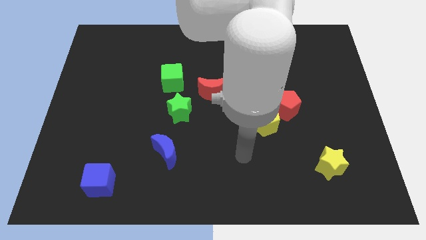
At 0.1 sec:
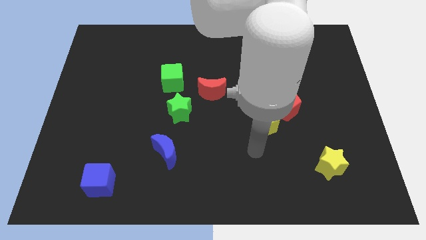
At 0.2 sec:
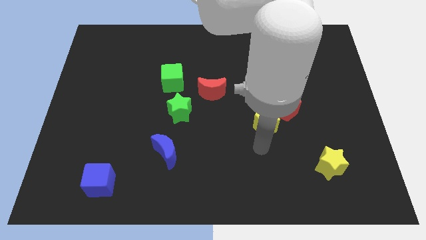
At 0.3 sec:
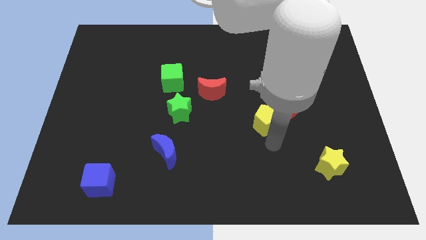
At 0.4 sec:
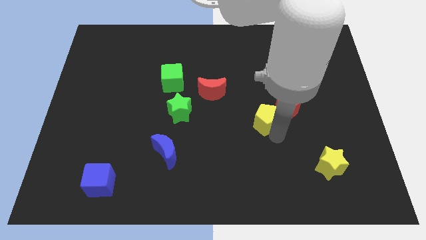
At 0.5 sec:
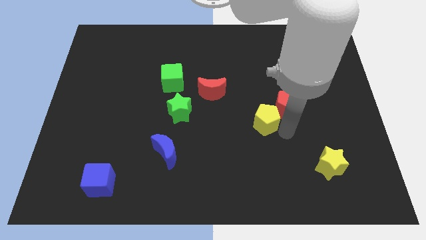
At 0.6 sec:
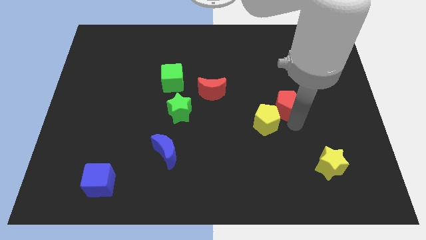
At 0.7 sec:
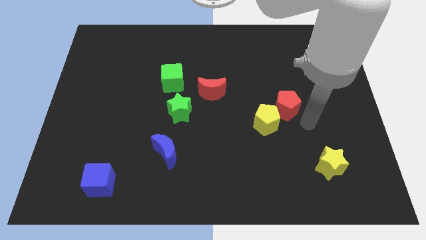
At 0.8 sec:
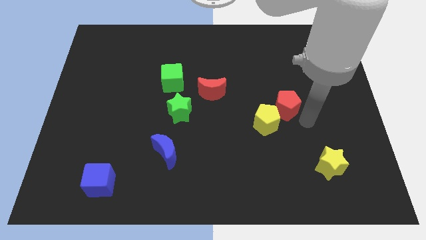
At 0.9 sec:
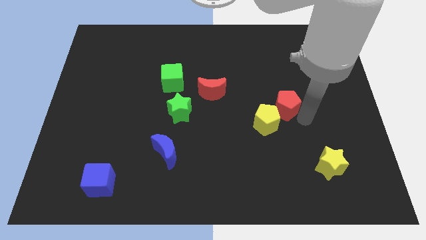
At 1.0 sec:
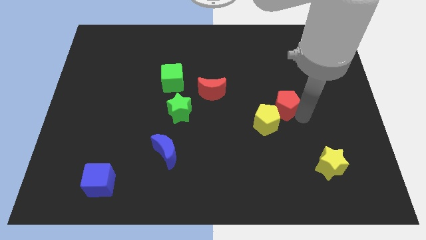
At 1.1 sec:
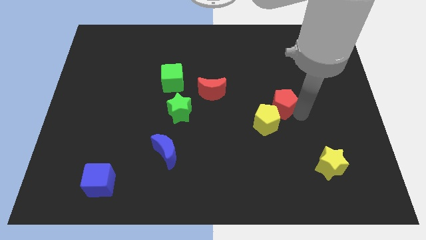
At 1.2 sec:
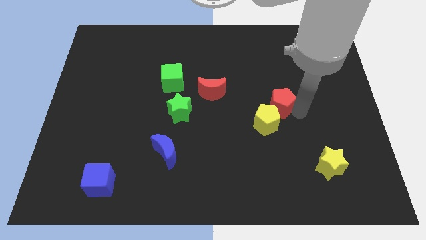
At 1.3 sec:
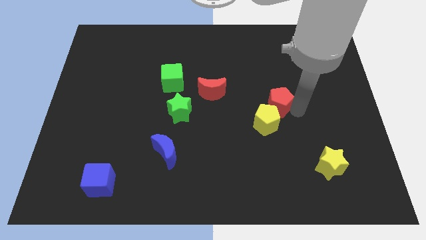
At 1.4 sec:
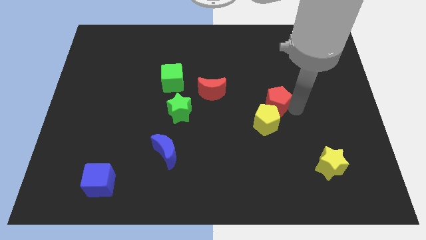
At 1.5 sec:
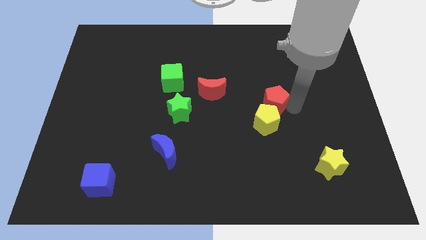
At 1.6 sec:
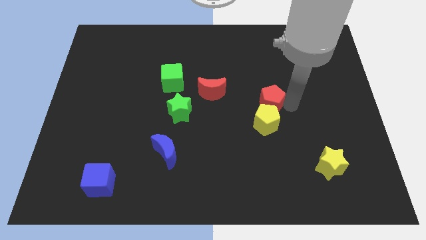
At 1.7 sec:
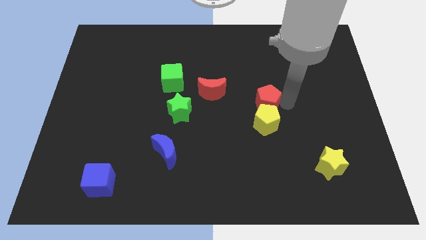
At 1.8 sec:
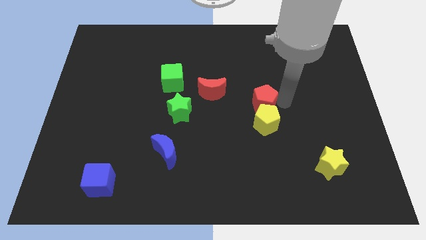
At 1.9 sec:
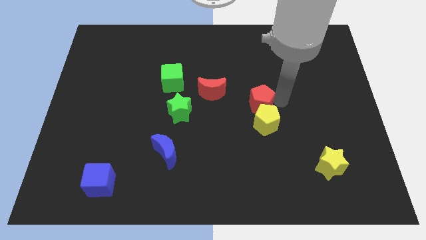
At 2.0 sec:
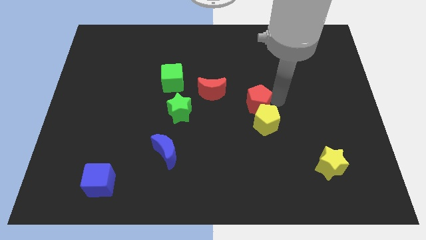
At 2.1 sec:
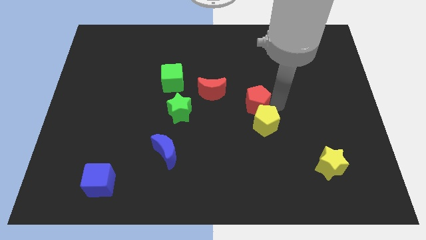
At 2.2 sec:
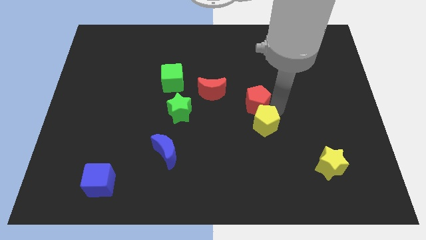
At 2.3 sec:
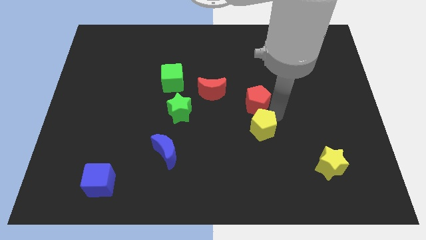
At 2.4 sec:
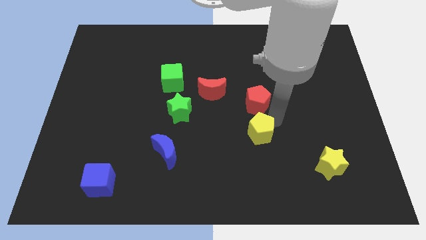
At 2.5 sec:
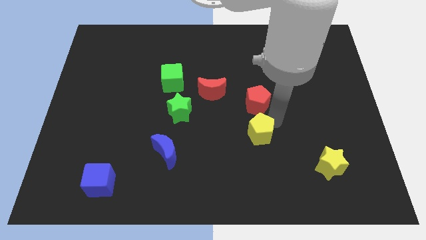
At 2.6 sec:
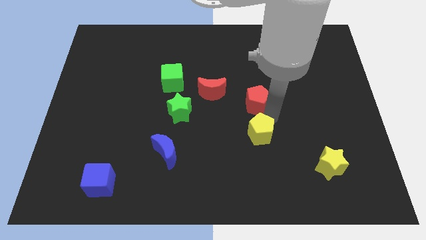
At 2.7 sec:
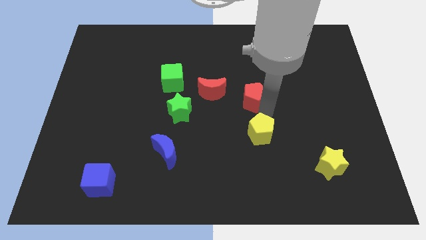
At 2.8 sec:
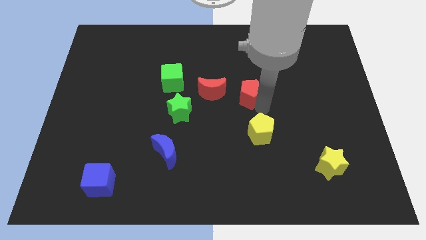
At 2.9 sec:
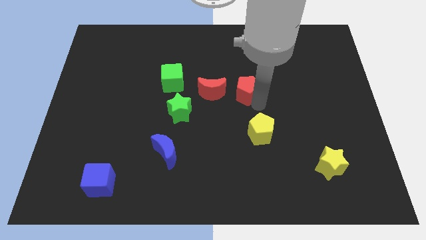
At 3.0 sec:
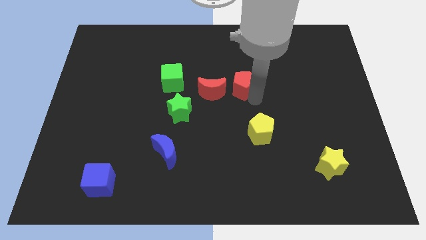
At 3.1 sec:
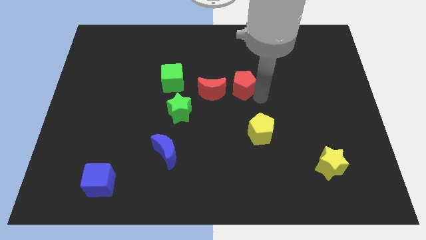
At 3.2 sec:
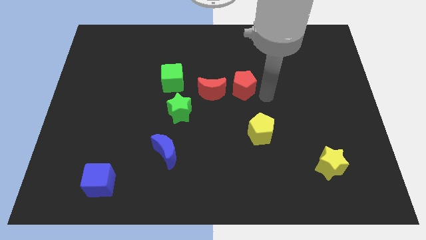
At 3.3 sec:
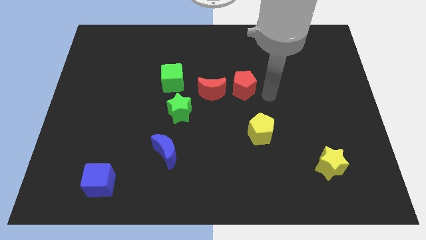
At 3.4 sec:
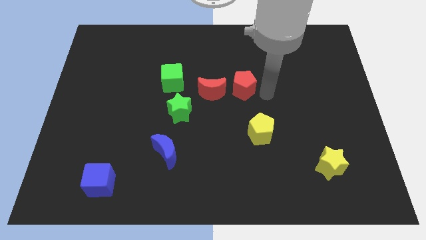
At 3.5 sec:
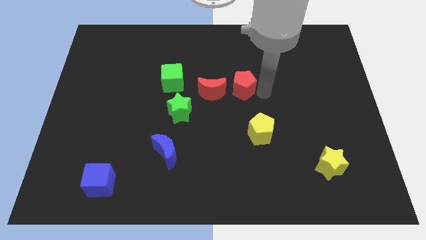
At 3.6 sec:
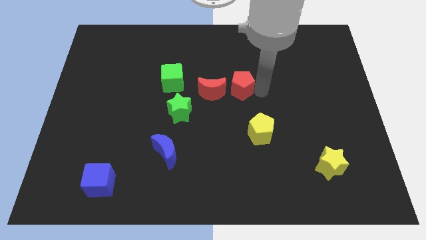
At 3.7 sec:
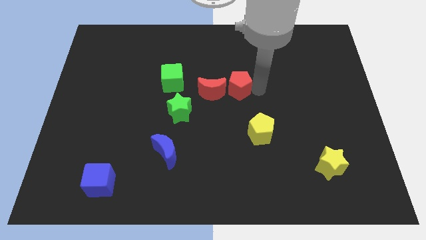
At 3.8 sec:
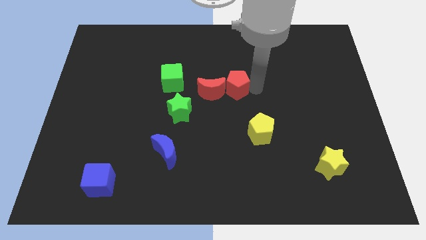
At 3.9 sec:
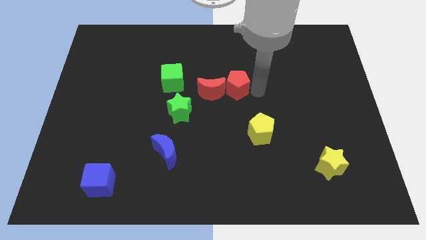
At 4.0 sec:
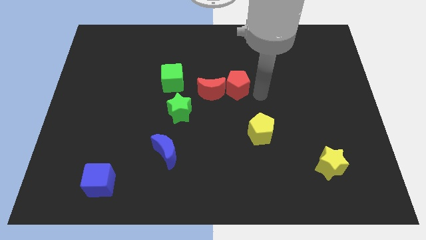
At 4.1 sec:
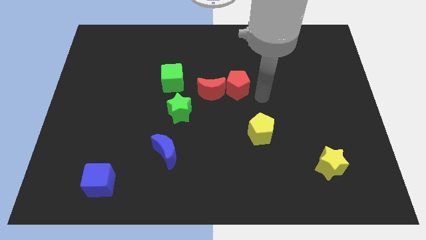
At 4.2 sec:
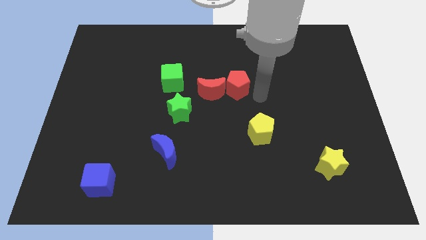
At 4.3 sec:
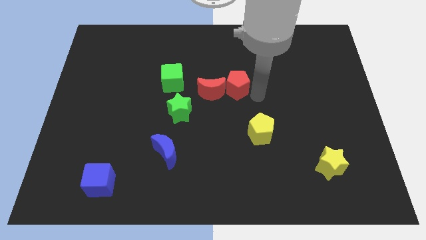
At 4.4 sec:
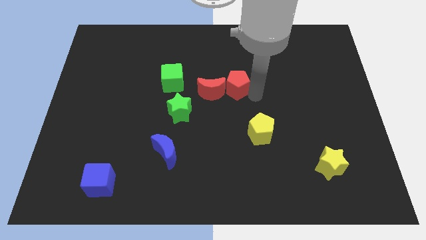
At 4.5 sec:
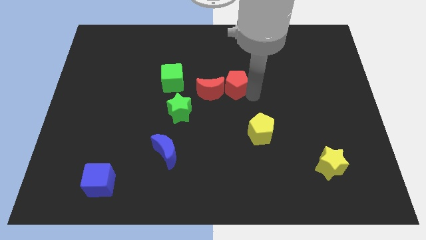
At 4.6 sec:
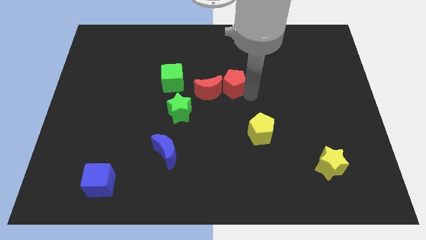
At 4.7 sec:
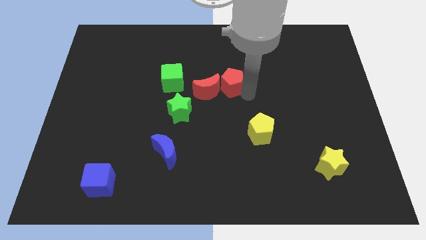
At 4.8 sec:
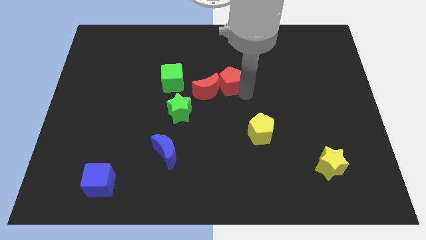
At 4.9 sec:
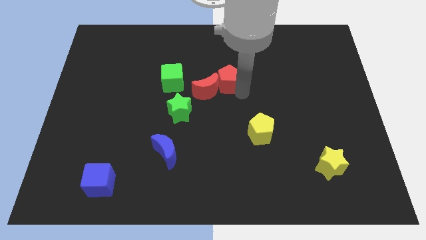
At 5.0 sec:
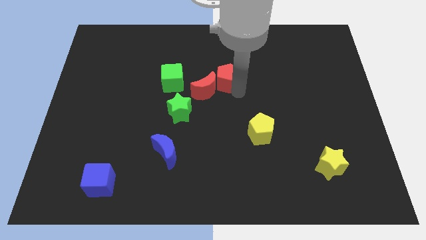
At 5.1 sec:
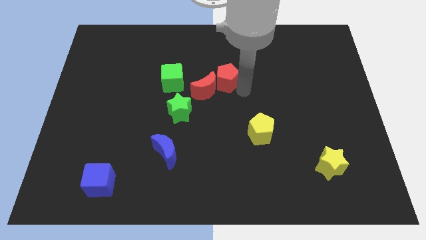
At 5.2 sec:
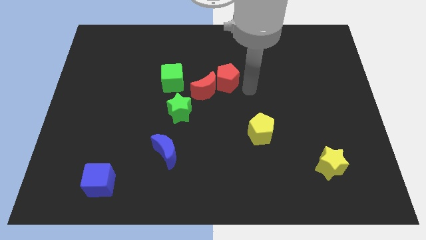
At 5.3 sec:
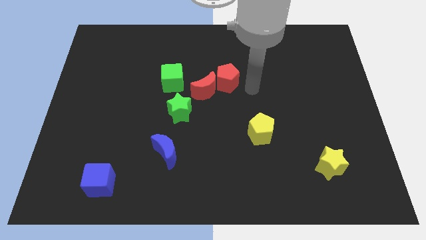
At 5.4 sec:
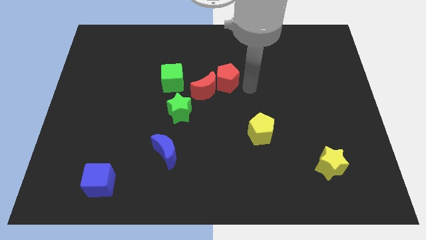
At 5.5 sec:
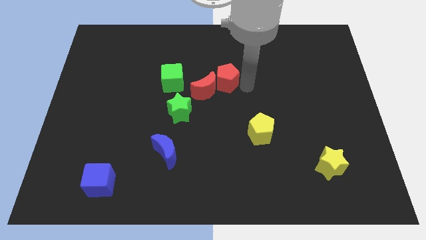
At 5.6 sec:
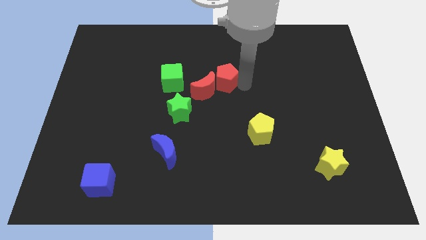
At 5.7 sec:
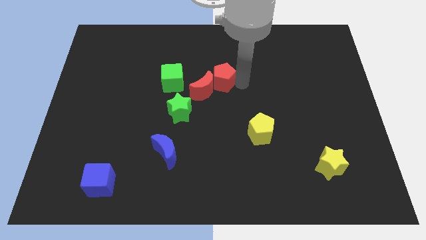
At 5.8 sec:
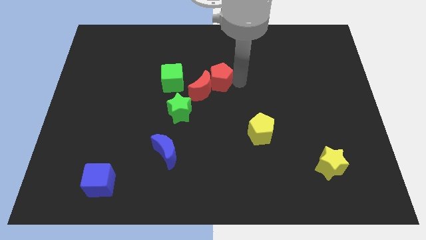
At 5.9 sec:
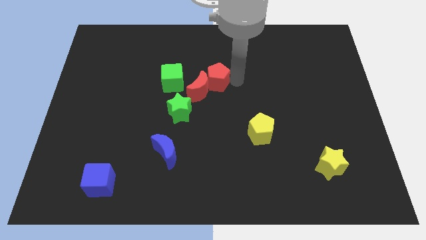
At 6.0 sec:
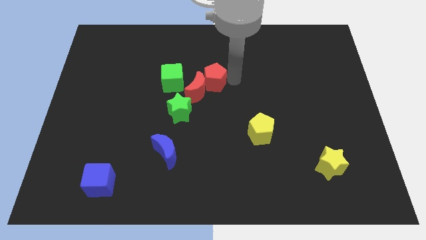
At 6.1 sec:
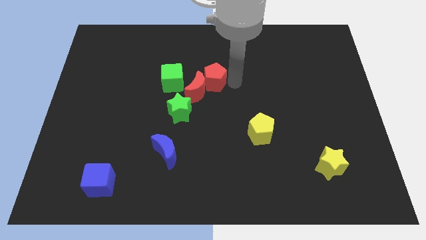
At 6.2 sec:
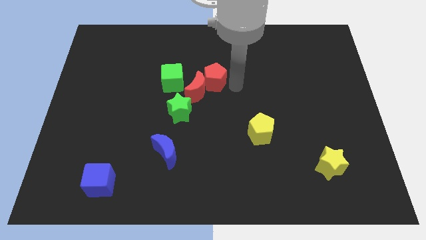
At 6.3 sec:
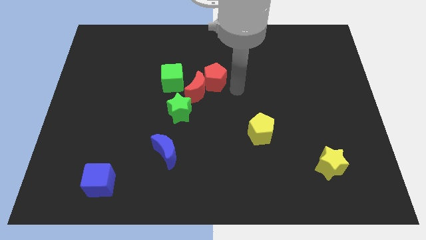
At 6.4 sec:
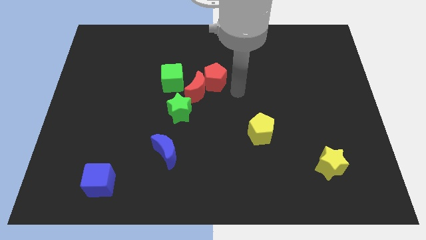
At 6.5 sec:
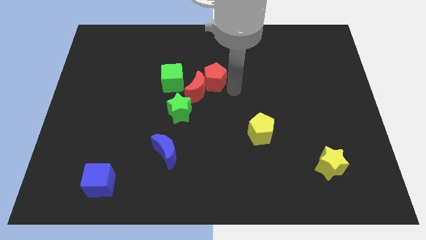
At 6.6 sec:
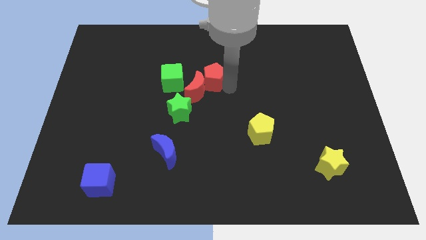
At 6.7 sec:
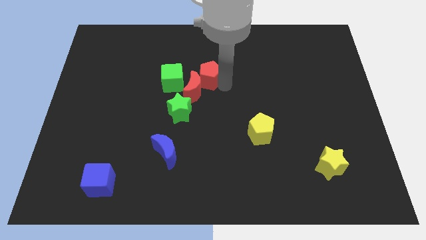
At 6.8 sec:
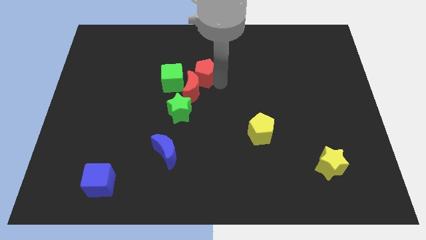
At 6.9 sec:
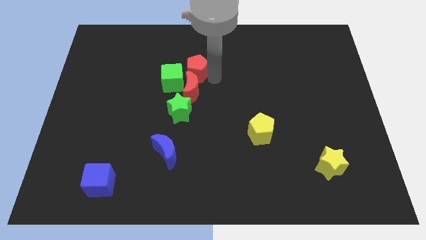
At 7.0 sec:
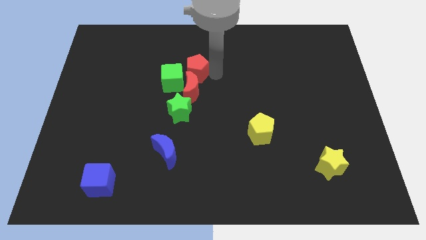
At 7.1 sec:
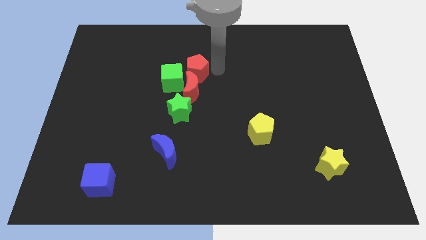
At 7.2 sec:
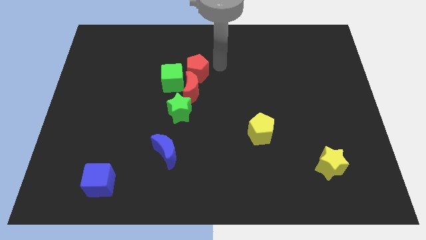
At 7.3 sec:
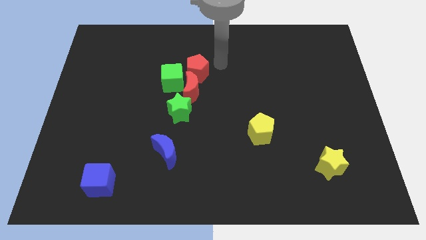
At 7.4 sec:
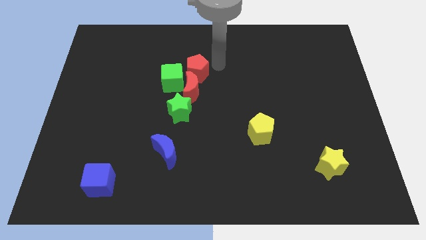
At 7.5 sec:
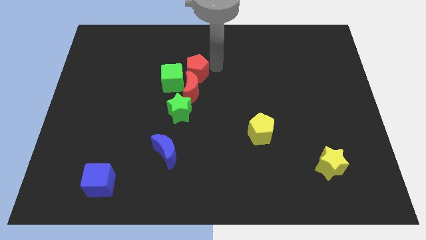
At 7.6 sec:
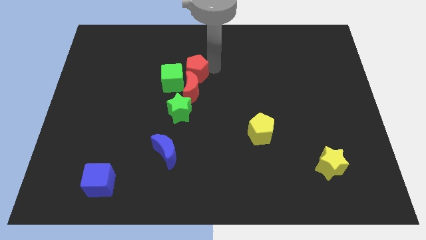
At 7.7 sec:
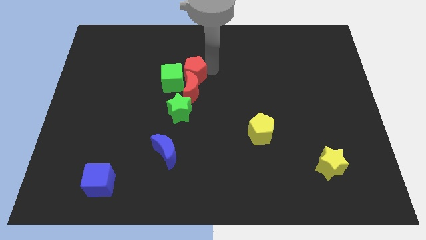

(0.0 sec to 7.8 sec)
push the red pentagon to the green cube
